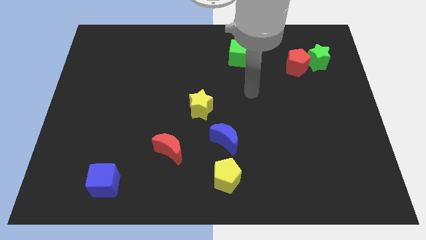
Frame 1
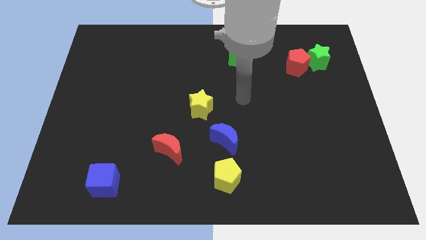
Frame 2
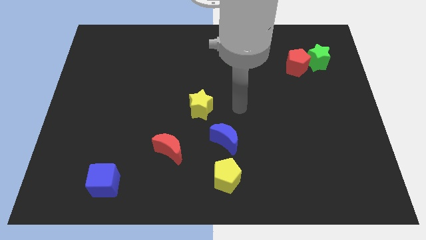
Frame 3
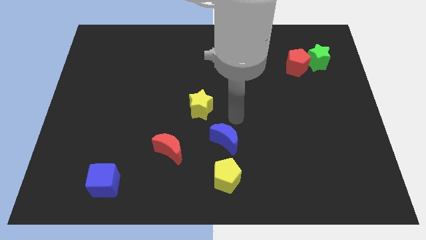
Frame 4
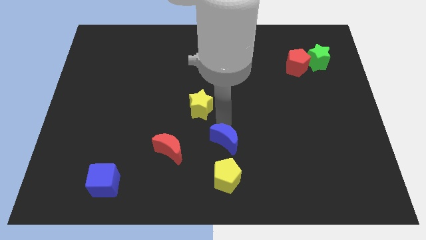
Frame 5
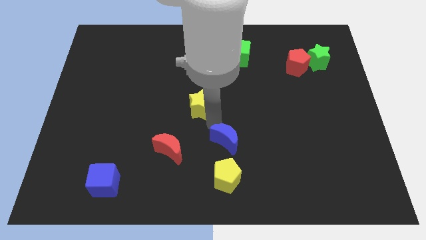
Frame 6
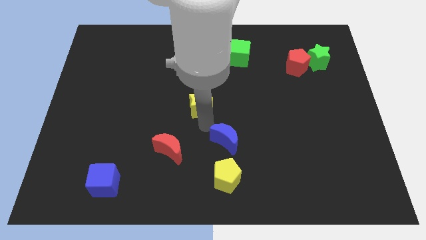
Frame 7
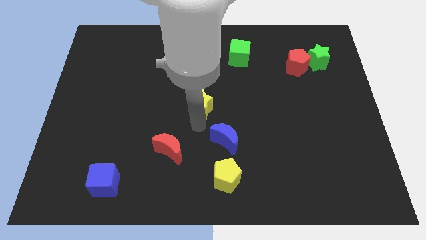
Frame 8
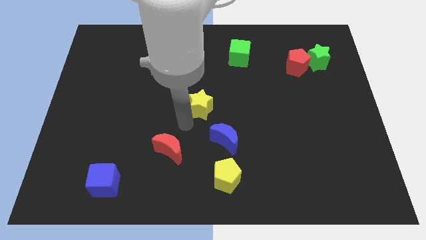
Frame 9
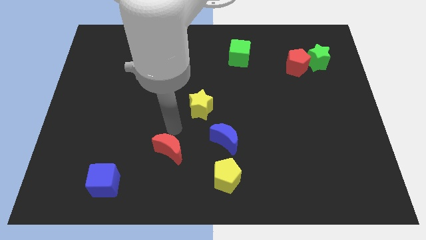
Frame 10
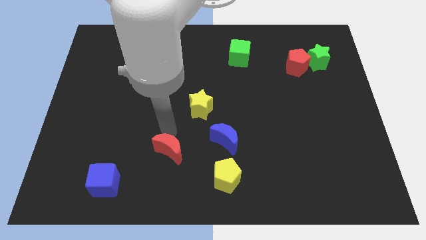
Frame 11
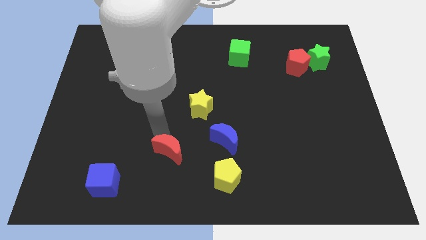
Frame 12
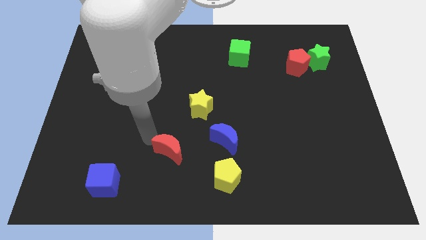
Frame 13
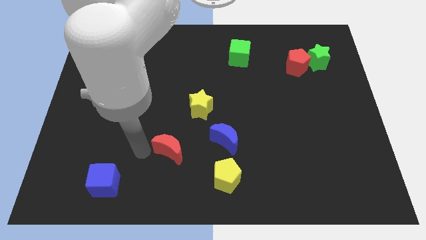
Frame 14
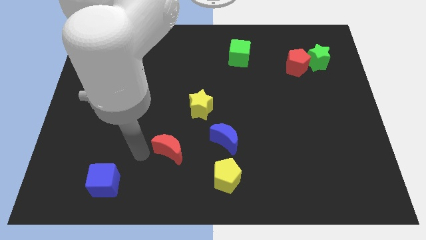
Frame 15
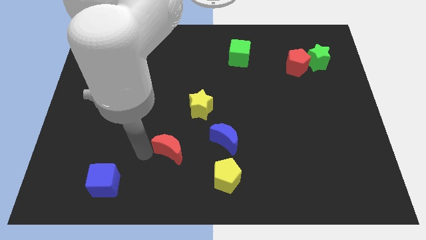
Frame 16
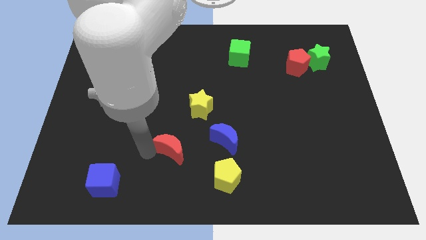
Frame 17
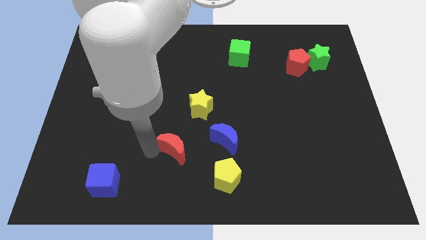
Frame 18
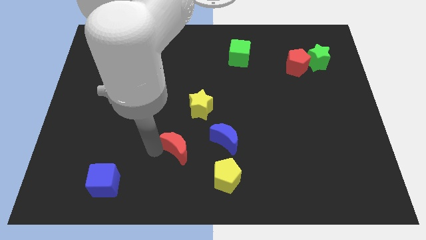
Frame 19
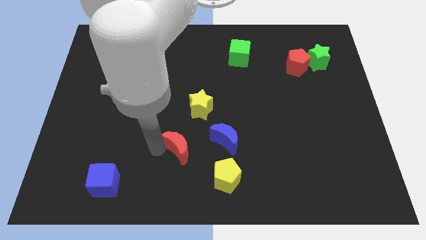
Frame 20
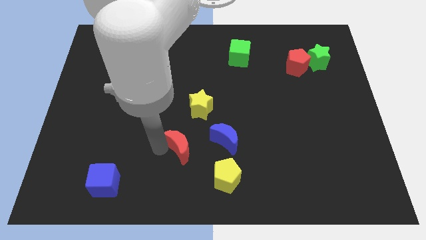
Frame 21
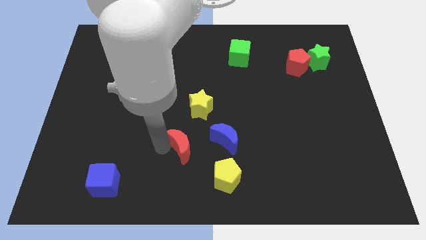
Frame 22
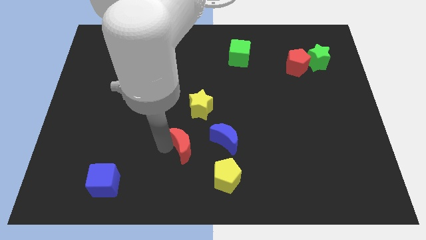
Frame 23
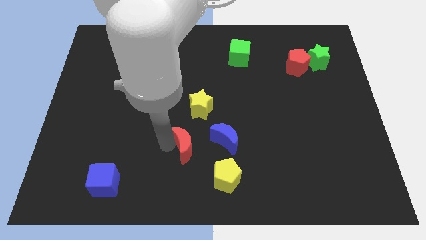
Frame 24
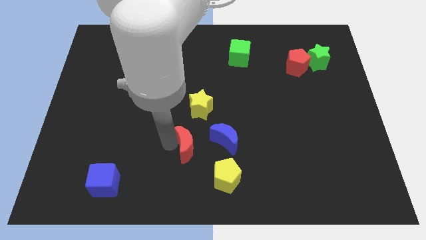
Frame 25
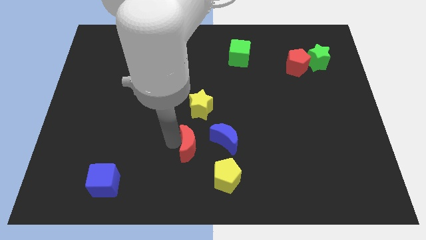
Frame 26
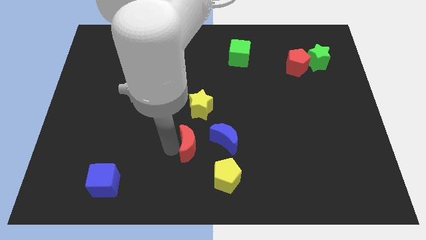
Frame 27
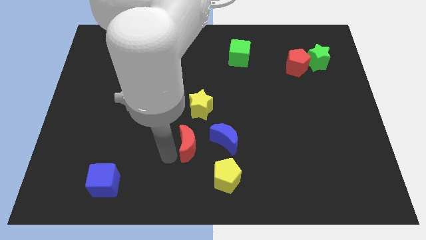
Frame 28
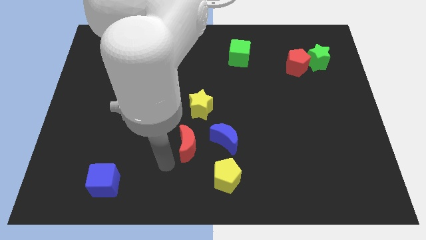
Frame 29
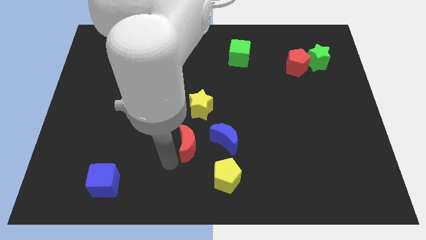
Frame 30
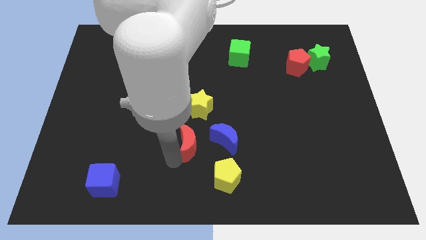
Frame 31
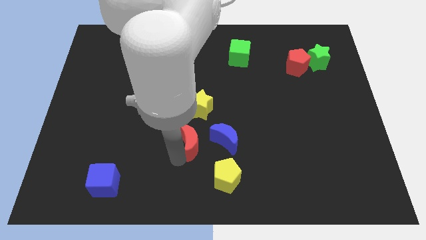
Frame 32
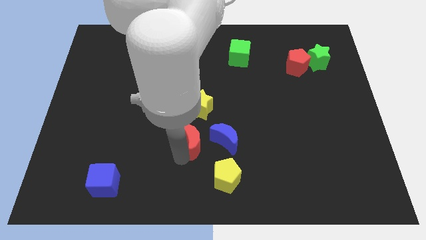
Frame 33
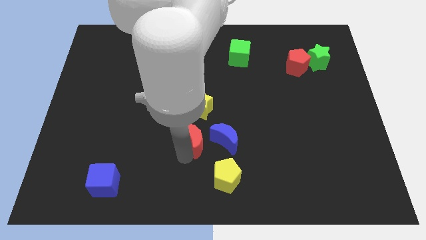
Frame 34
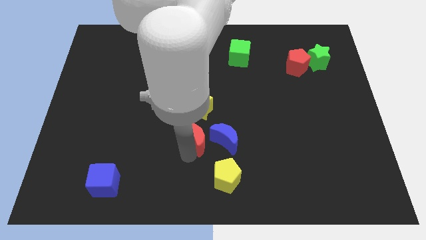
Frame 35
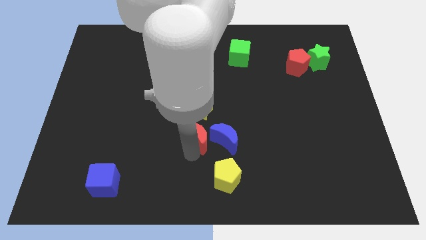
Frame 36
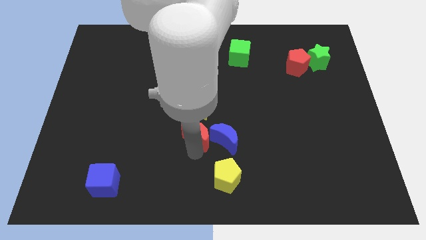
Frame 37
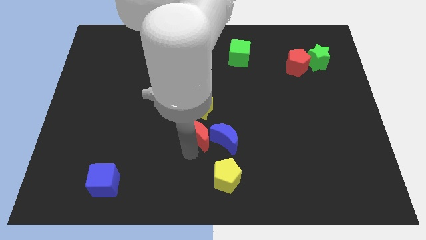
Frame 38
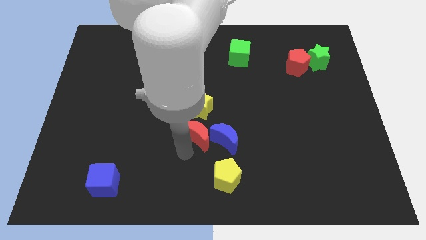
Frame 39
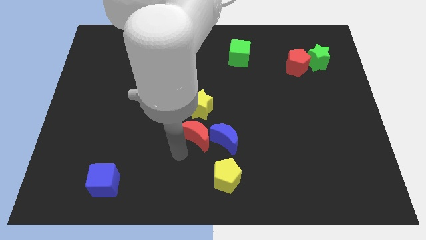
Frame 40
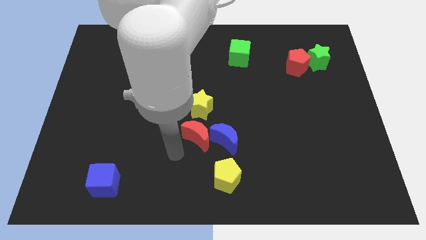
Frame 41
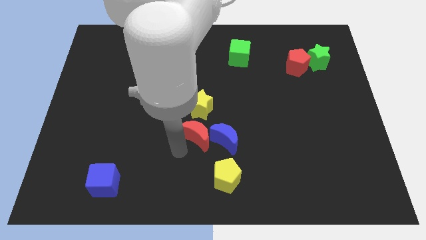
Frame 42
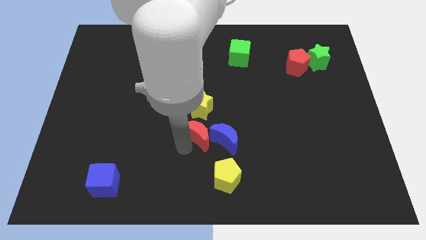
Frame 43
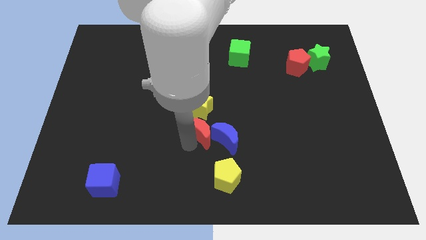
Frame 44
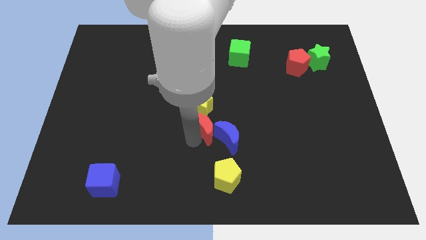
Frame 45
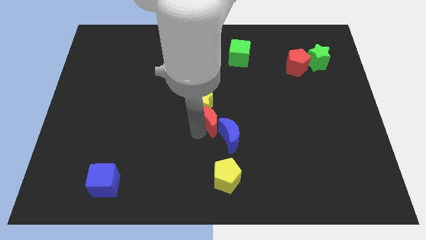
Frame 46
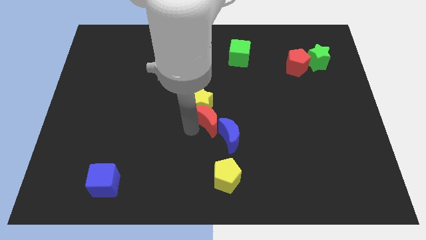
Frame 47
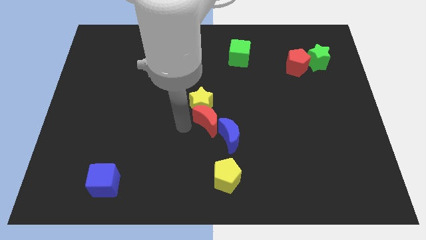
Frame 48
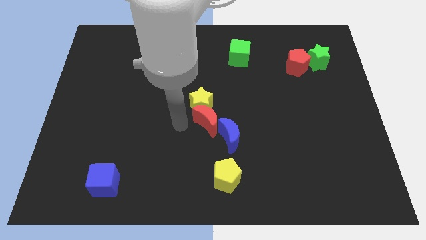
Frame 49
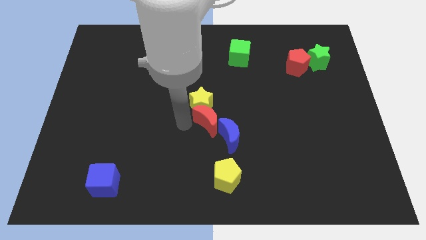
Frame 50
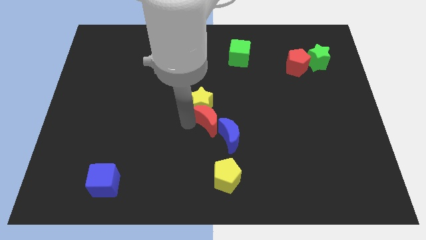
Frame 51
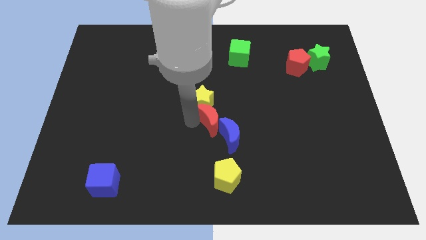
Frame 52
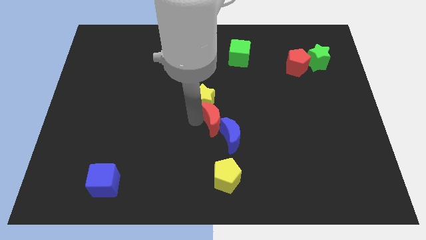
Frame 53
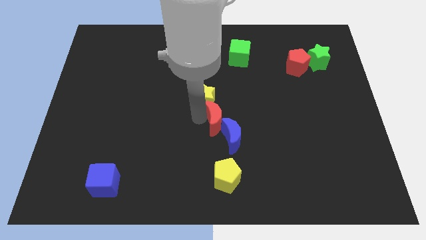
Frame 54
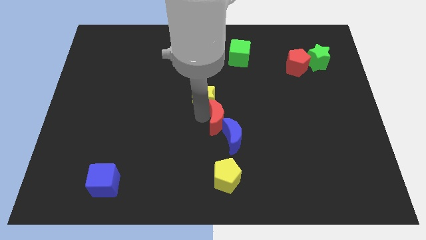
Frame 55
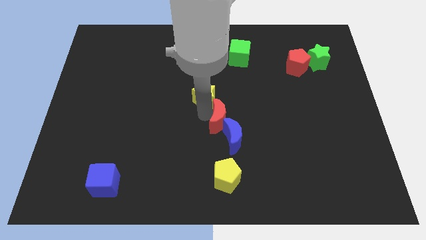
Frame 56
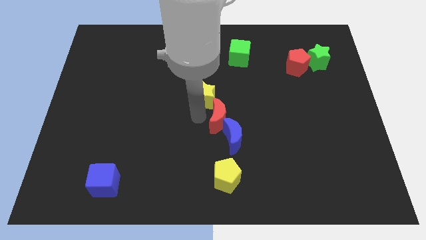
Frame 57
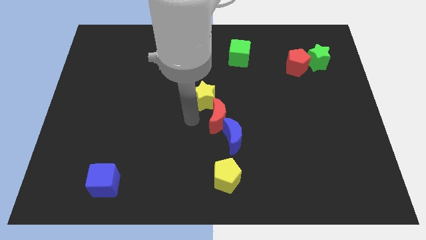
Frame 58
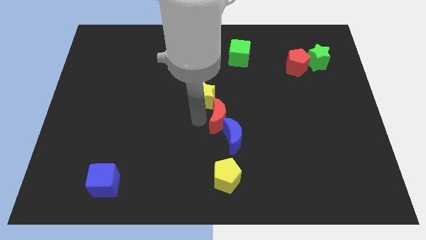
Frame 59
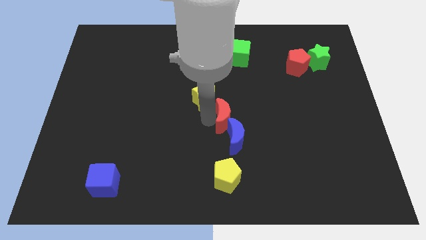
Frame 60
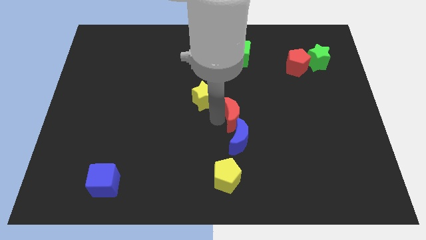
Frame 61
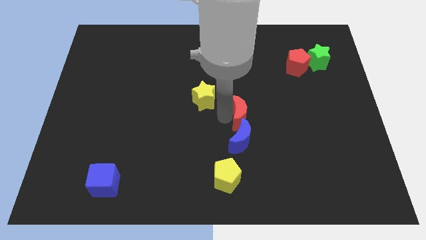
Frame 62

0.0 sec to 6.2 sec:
move the red moon to the top right of the blue moon

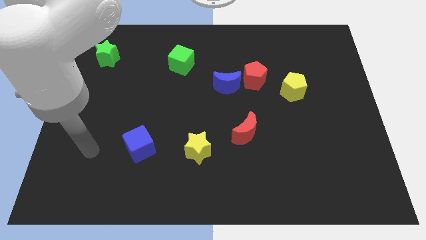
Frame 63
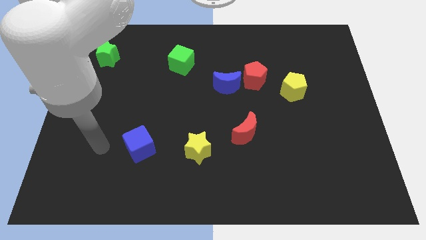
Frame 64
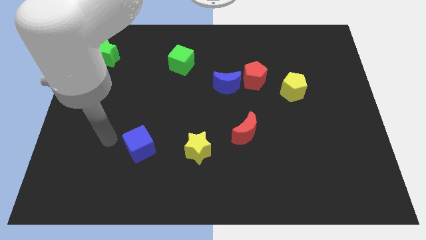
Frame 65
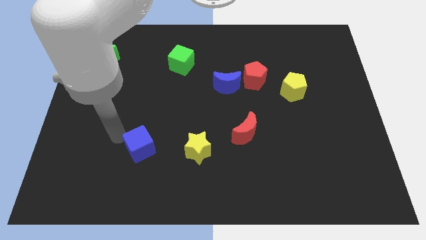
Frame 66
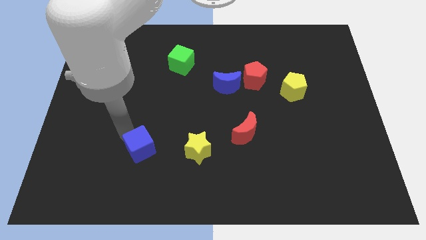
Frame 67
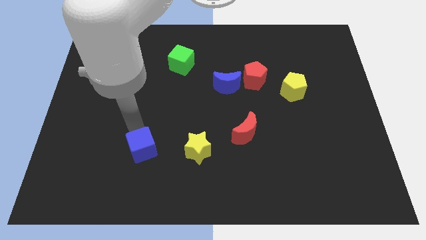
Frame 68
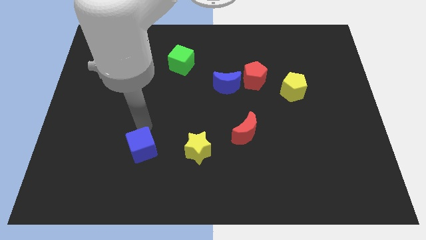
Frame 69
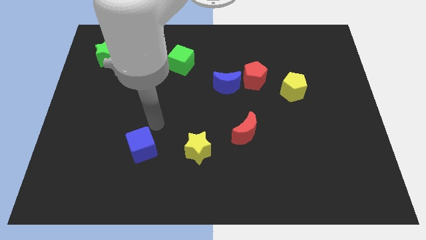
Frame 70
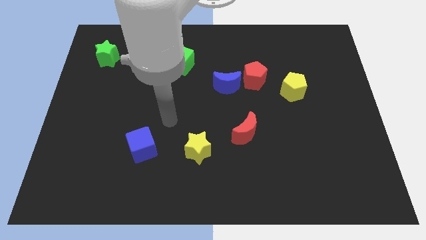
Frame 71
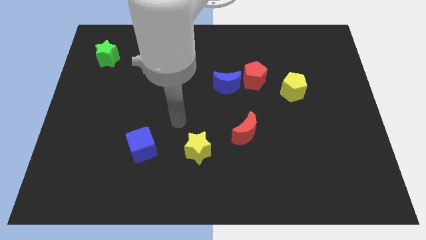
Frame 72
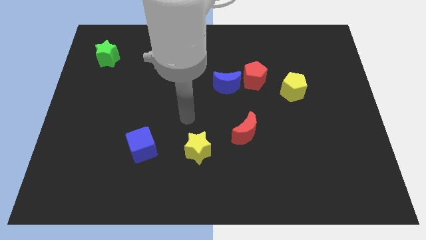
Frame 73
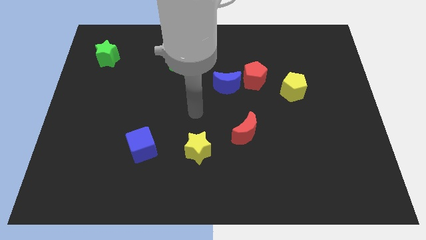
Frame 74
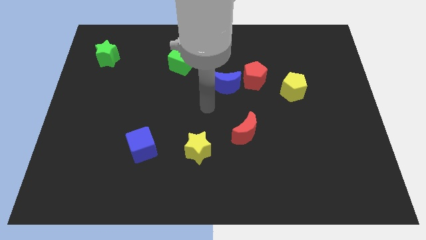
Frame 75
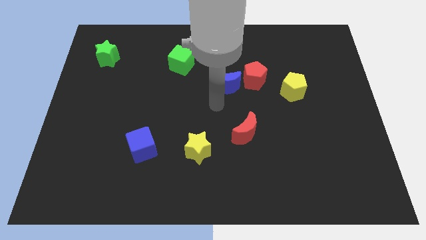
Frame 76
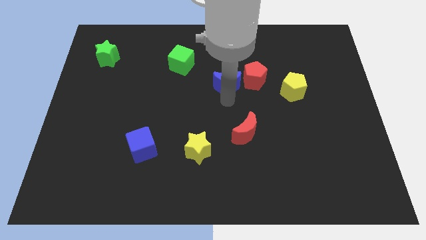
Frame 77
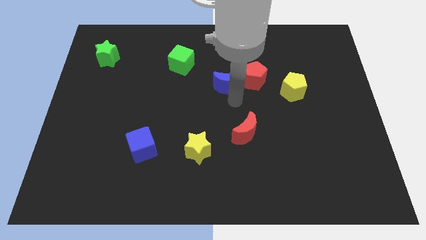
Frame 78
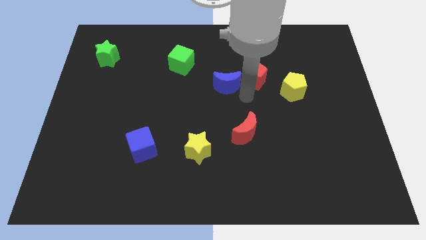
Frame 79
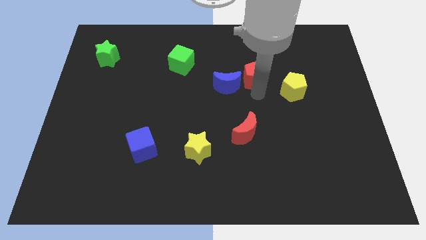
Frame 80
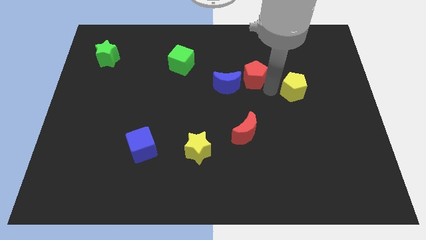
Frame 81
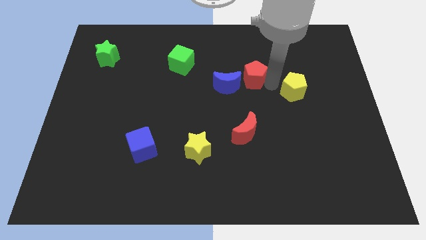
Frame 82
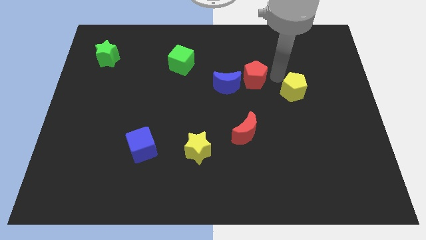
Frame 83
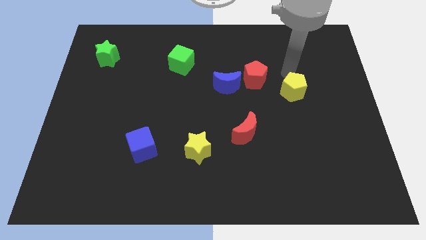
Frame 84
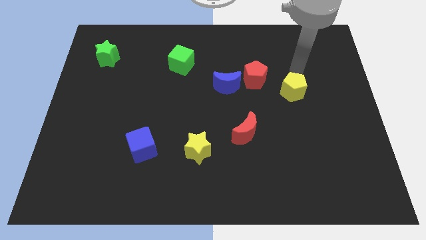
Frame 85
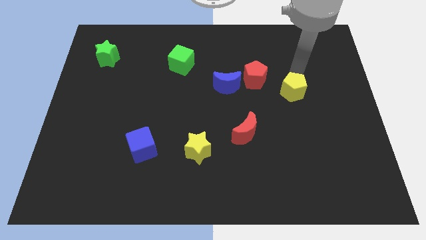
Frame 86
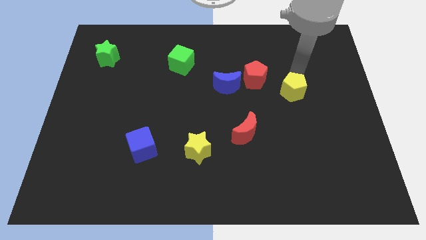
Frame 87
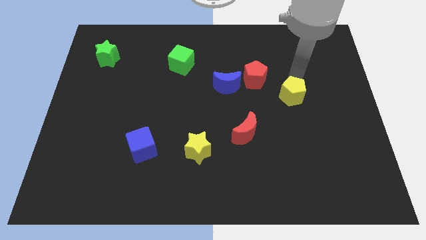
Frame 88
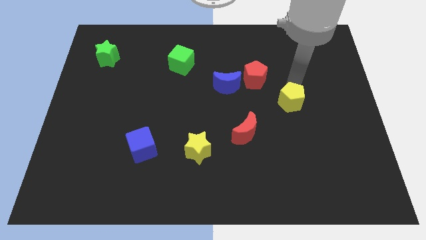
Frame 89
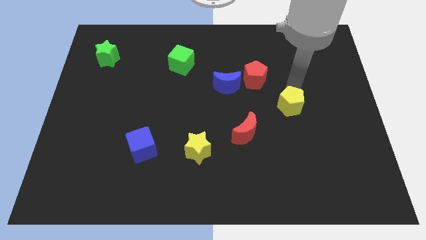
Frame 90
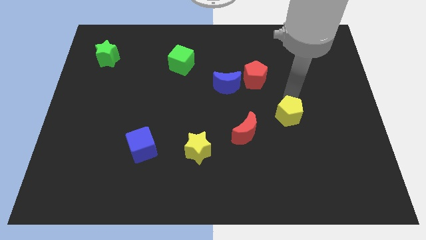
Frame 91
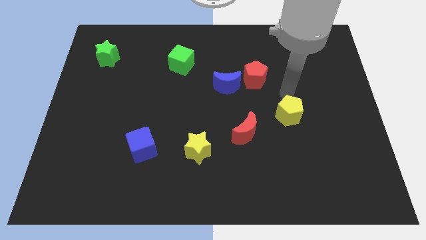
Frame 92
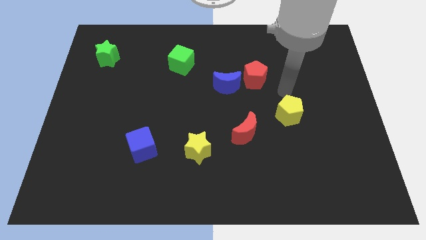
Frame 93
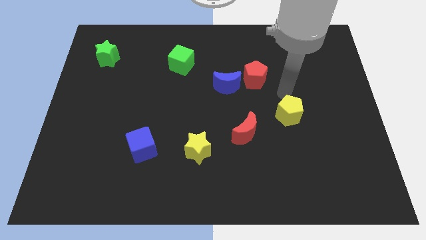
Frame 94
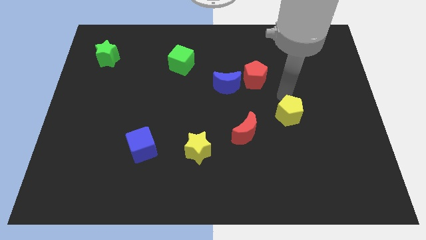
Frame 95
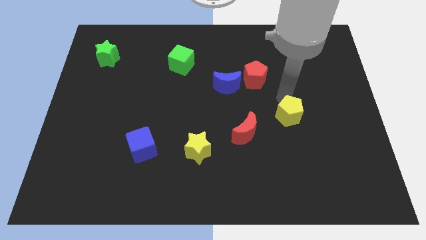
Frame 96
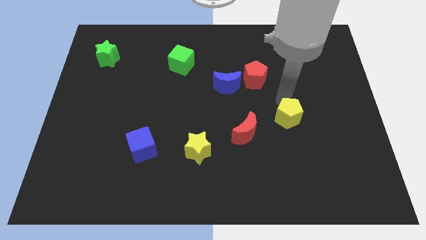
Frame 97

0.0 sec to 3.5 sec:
push the yellow pentagon right of the red moon
